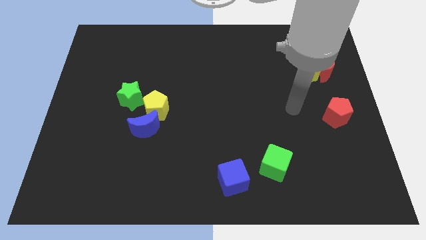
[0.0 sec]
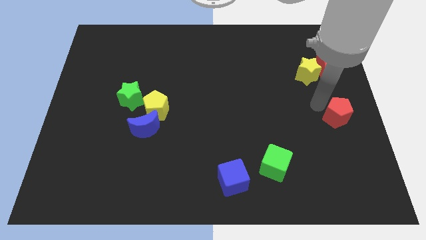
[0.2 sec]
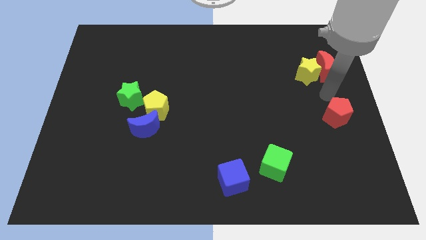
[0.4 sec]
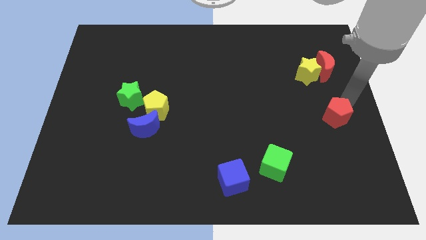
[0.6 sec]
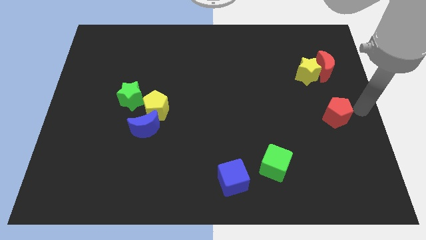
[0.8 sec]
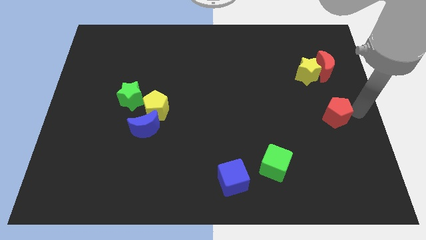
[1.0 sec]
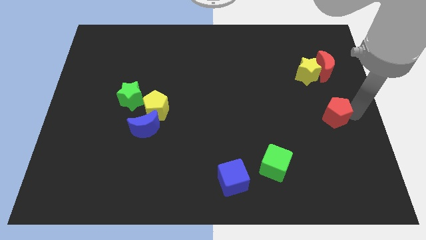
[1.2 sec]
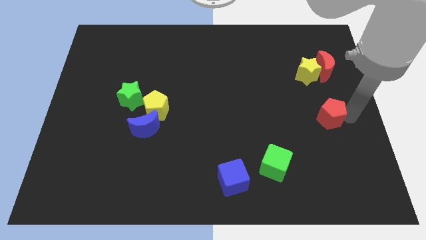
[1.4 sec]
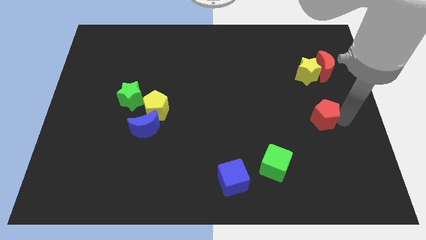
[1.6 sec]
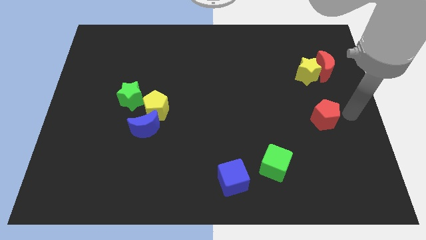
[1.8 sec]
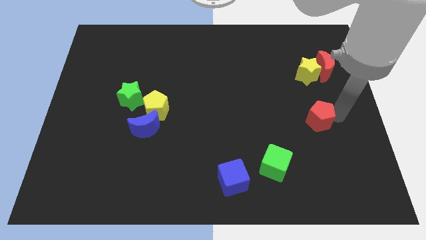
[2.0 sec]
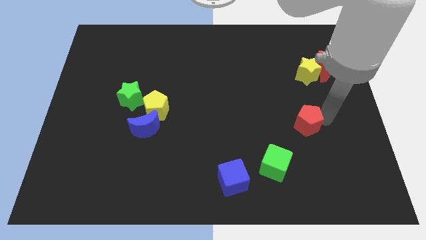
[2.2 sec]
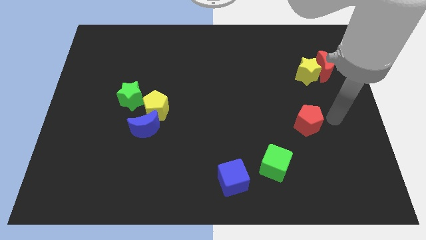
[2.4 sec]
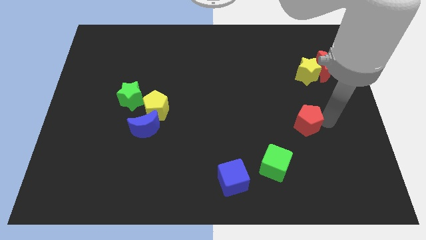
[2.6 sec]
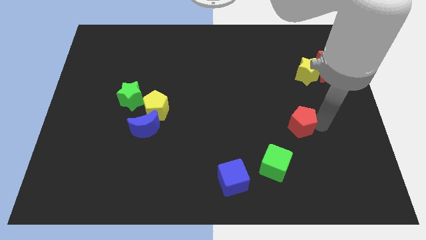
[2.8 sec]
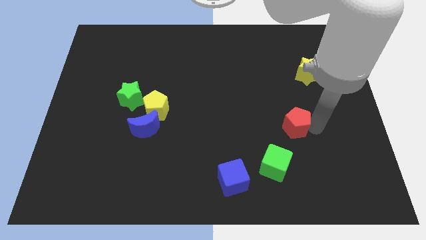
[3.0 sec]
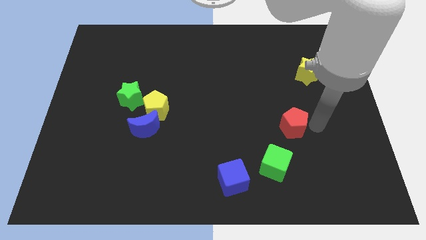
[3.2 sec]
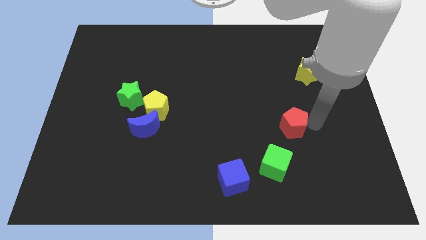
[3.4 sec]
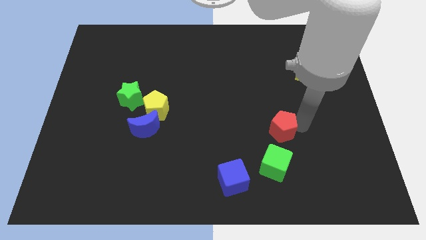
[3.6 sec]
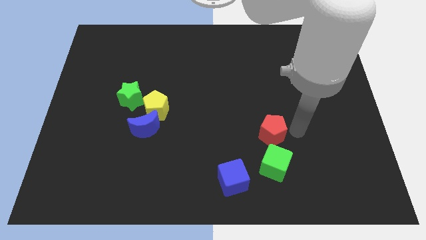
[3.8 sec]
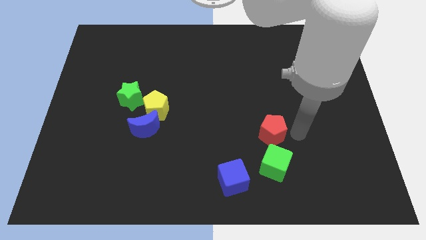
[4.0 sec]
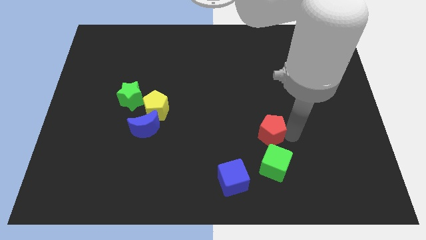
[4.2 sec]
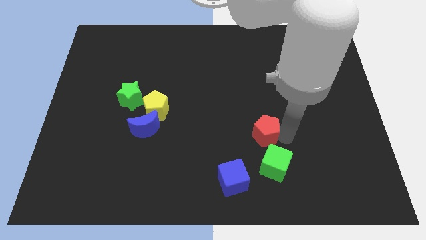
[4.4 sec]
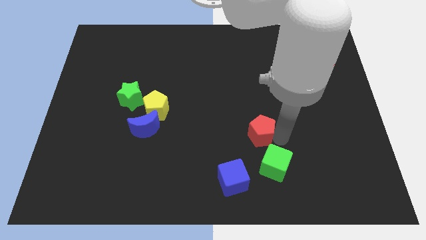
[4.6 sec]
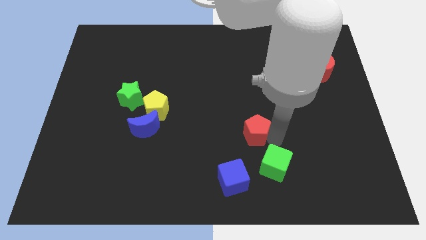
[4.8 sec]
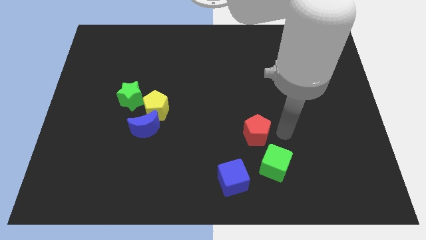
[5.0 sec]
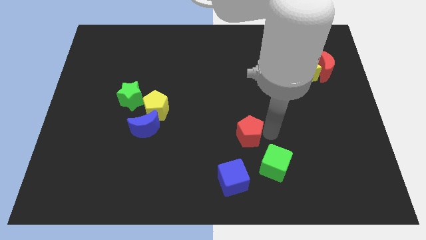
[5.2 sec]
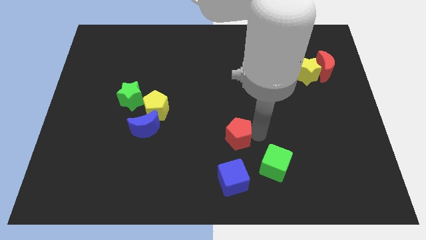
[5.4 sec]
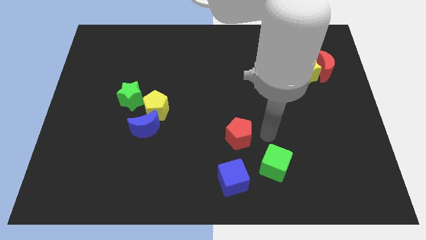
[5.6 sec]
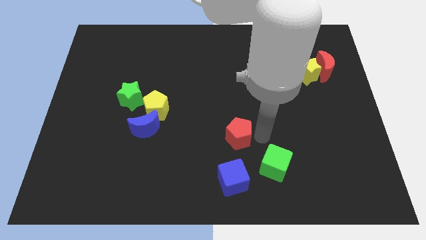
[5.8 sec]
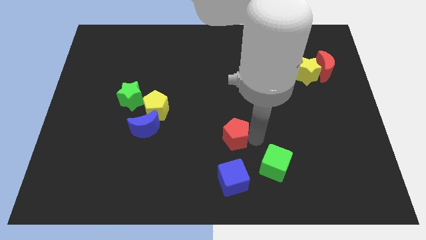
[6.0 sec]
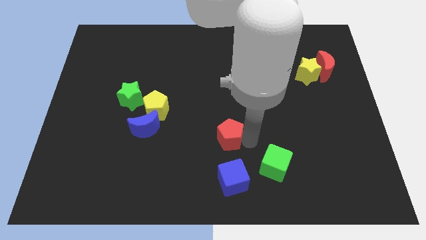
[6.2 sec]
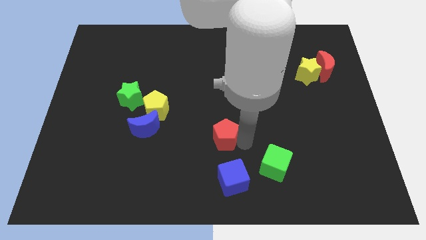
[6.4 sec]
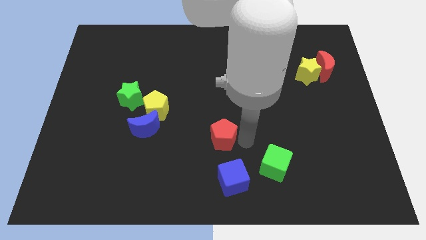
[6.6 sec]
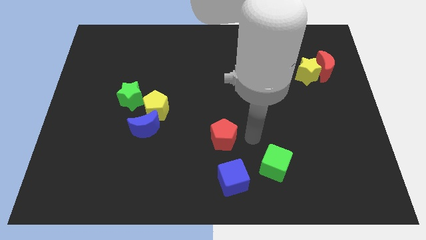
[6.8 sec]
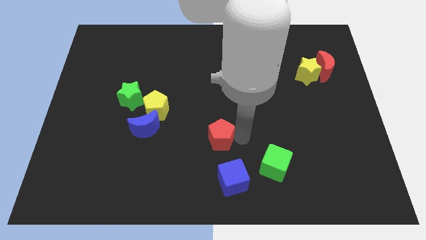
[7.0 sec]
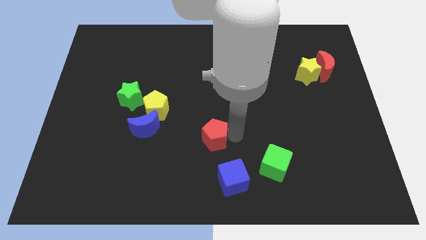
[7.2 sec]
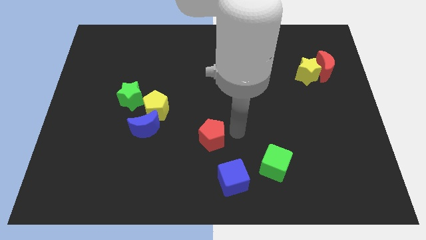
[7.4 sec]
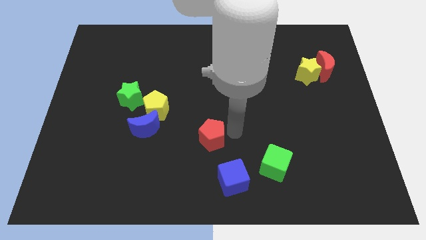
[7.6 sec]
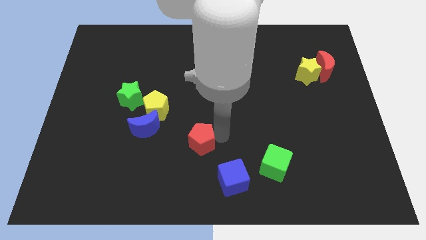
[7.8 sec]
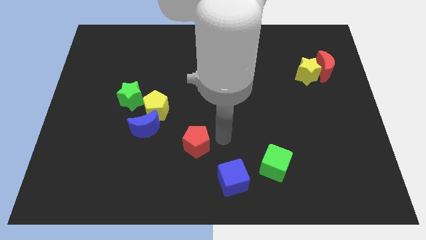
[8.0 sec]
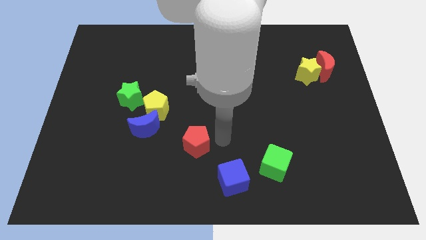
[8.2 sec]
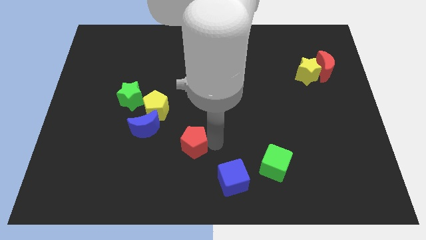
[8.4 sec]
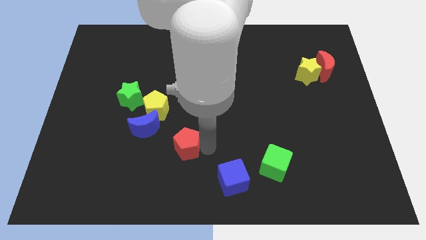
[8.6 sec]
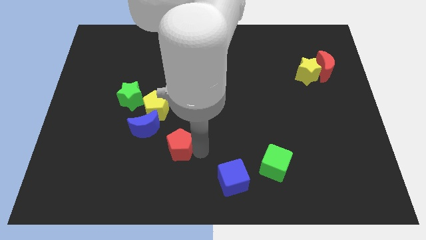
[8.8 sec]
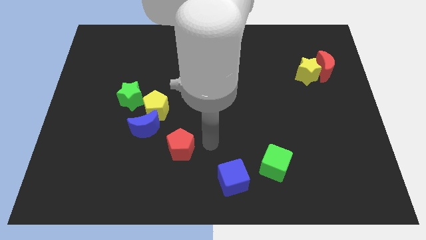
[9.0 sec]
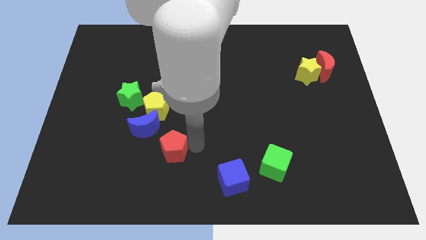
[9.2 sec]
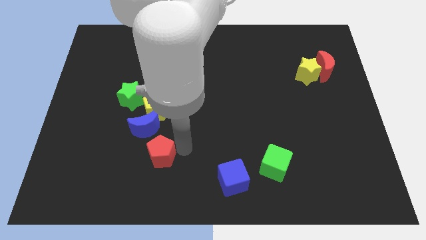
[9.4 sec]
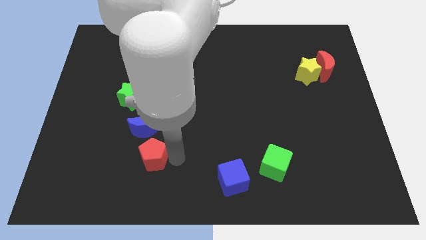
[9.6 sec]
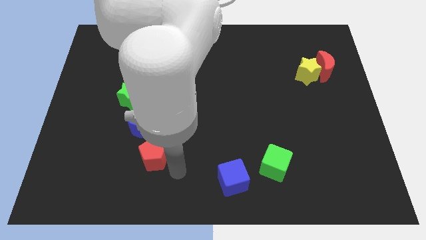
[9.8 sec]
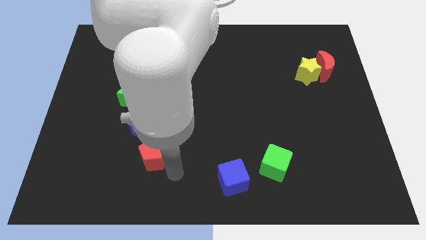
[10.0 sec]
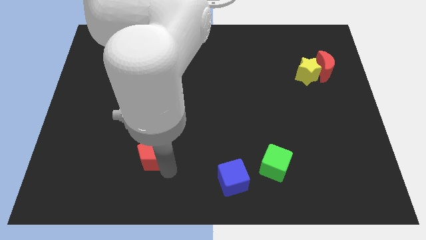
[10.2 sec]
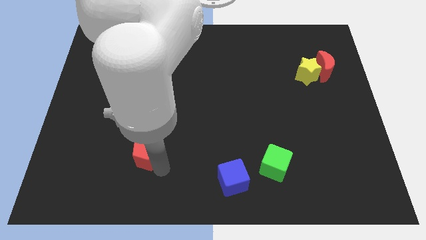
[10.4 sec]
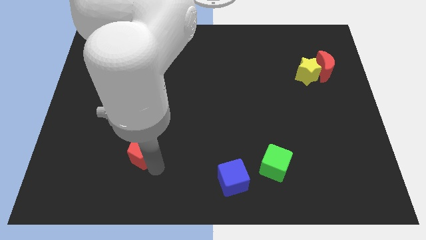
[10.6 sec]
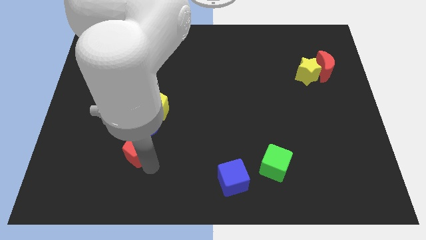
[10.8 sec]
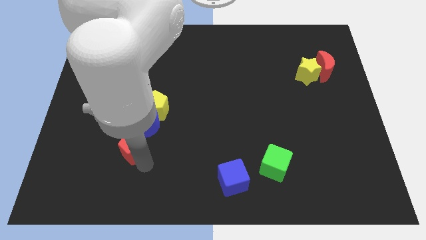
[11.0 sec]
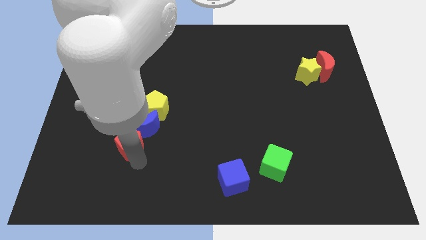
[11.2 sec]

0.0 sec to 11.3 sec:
put the red pentagon to the bottom left of the yellow pentagon

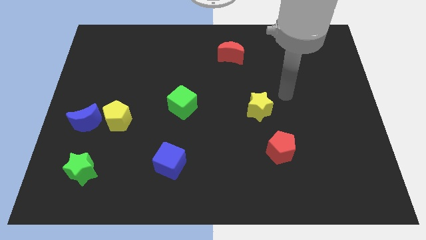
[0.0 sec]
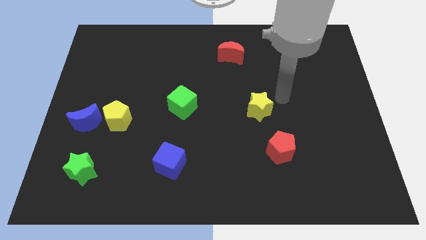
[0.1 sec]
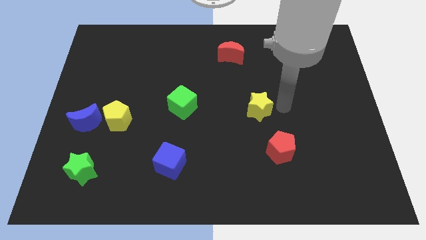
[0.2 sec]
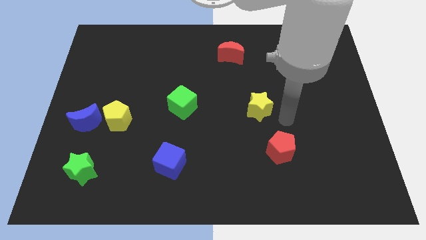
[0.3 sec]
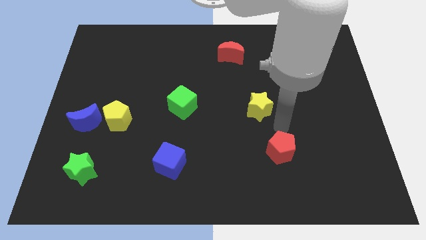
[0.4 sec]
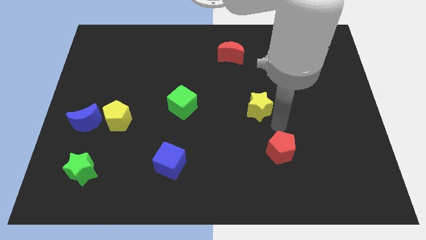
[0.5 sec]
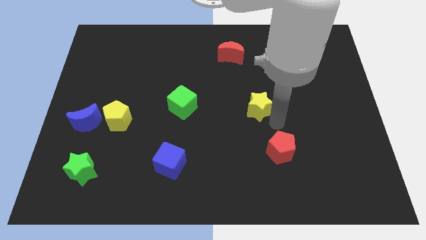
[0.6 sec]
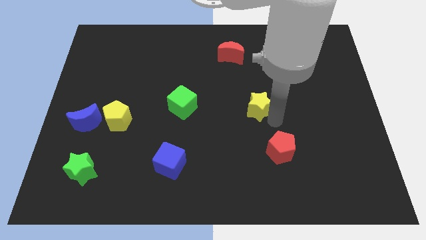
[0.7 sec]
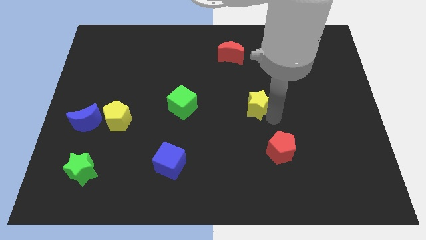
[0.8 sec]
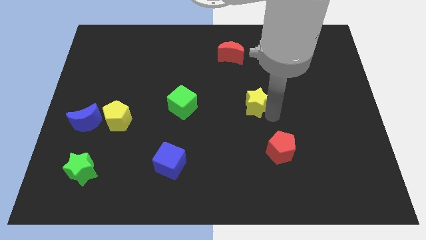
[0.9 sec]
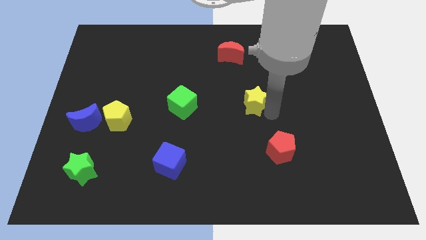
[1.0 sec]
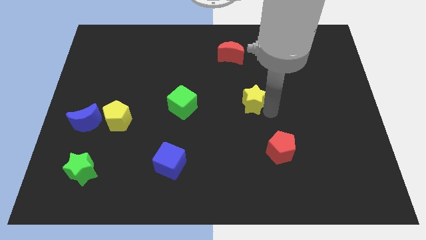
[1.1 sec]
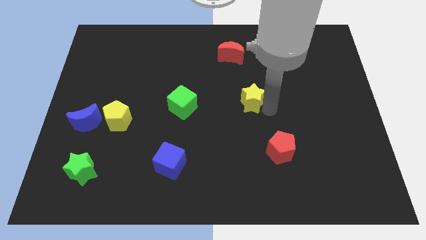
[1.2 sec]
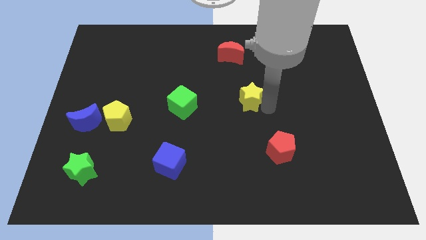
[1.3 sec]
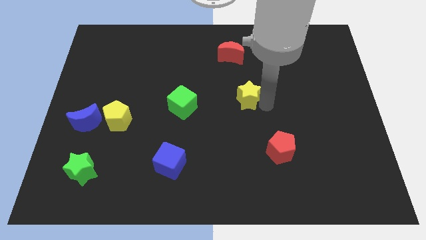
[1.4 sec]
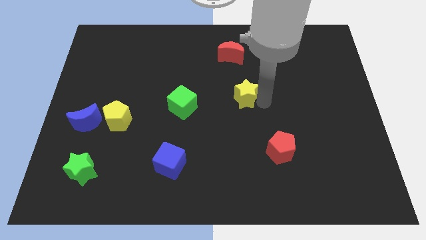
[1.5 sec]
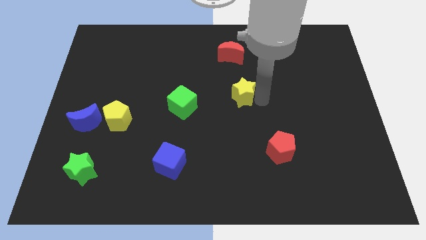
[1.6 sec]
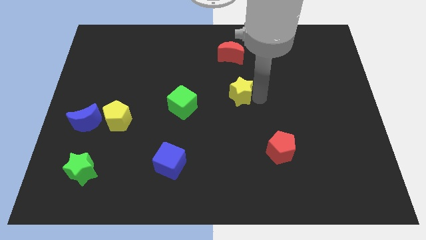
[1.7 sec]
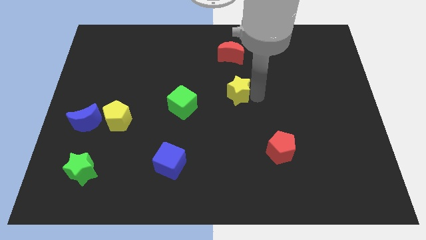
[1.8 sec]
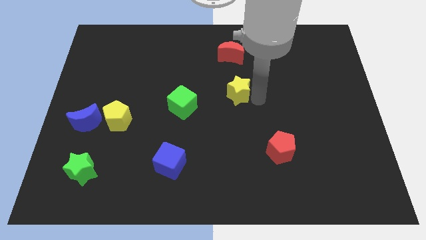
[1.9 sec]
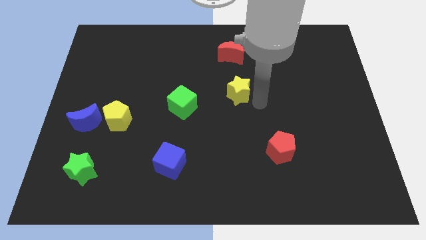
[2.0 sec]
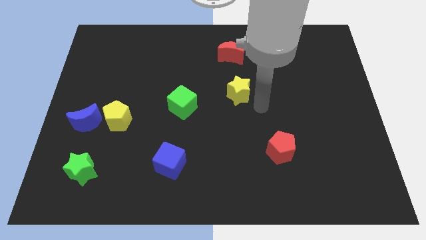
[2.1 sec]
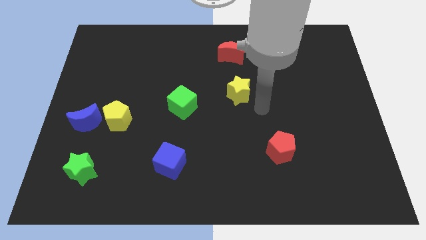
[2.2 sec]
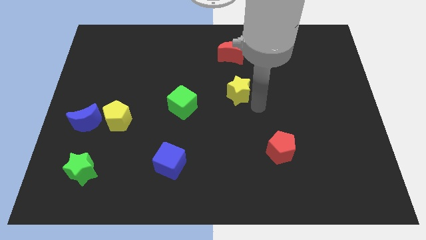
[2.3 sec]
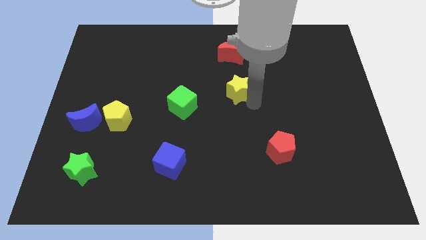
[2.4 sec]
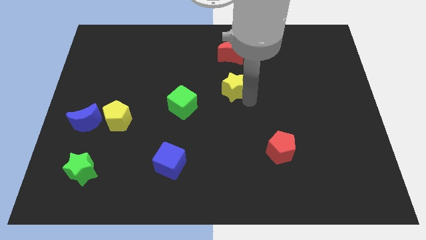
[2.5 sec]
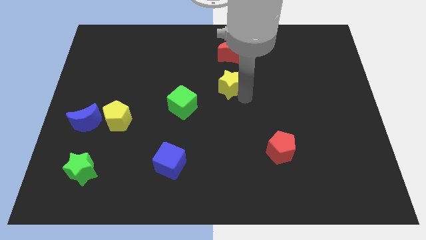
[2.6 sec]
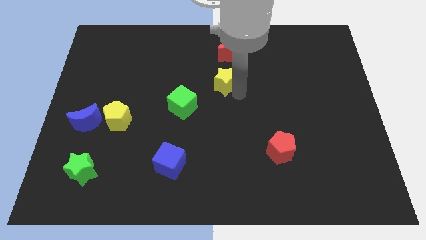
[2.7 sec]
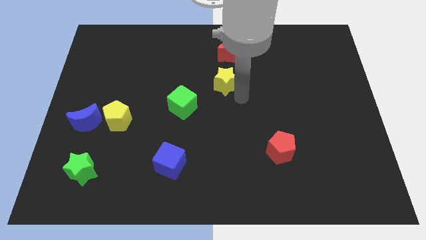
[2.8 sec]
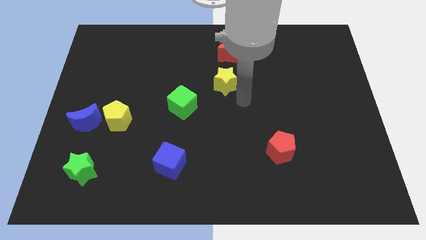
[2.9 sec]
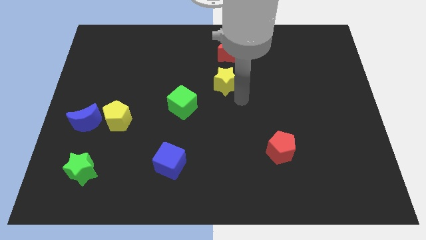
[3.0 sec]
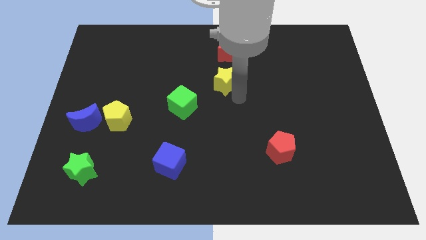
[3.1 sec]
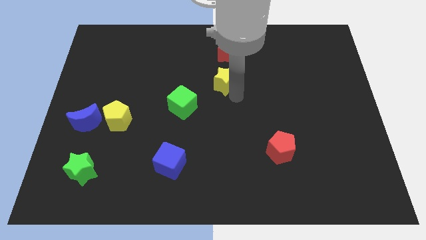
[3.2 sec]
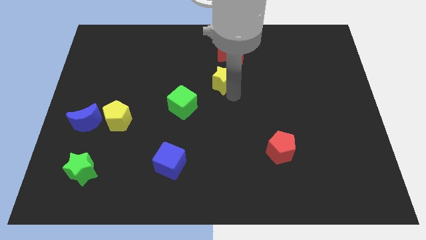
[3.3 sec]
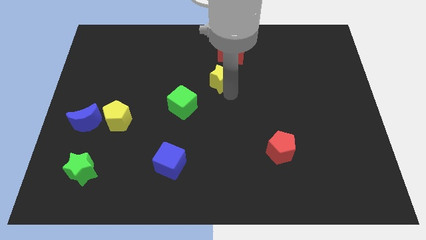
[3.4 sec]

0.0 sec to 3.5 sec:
push the yellow star to the bottom left of the red moon
